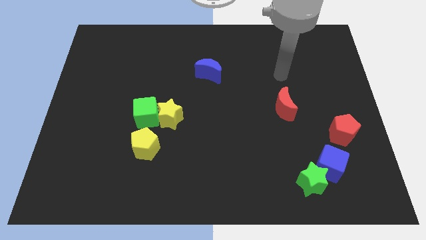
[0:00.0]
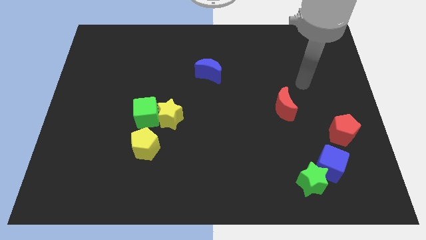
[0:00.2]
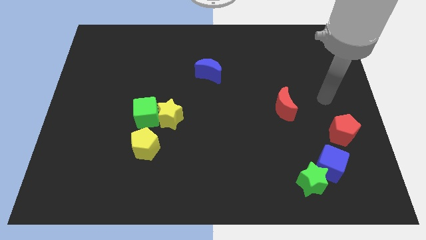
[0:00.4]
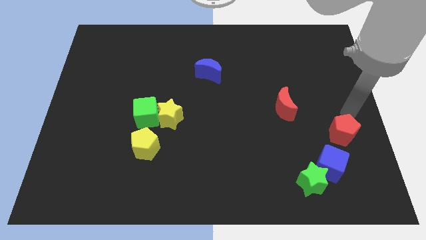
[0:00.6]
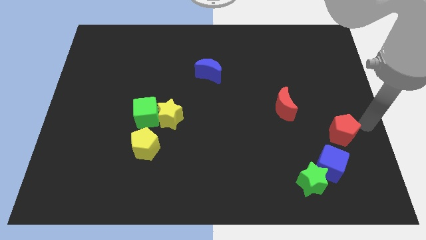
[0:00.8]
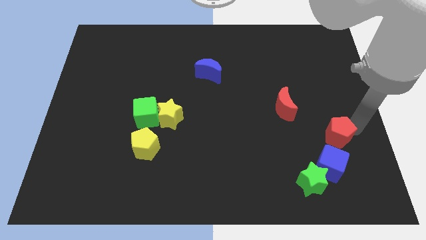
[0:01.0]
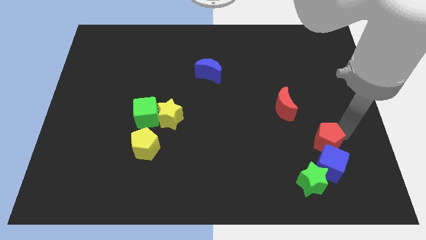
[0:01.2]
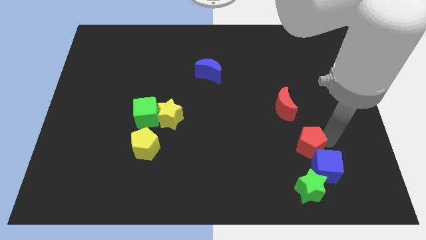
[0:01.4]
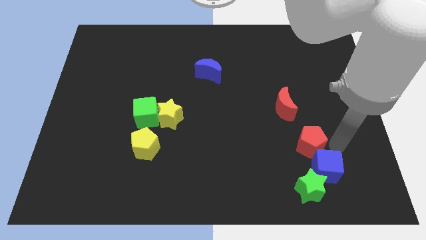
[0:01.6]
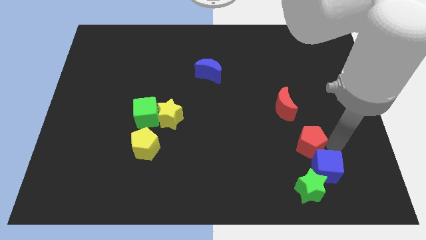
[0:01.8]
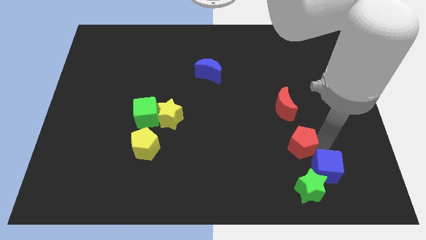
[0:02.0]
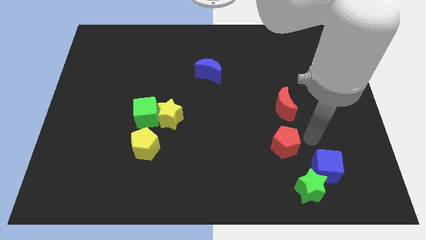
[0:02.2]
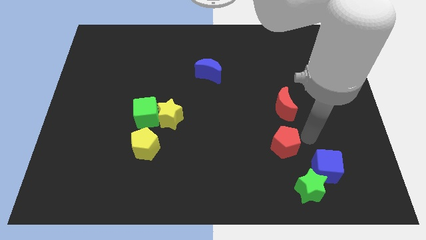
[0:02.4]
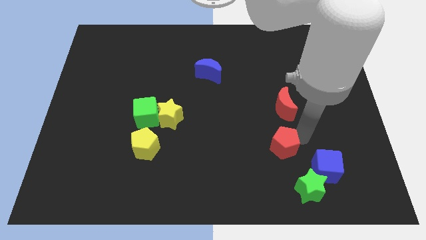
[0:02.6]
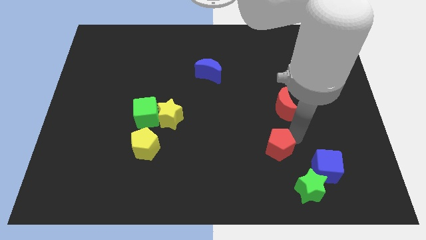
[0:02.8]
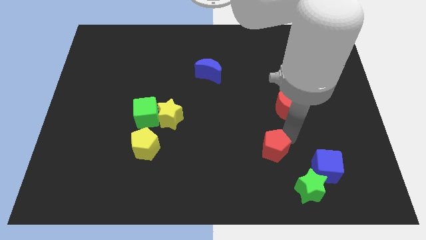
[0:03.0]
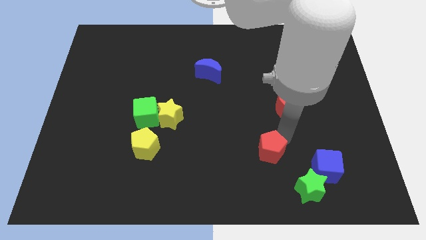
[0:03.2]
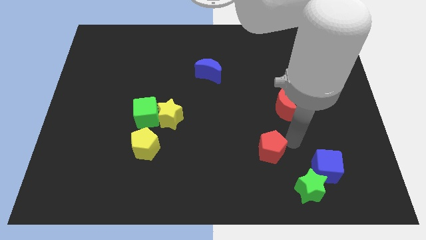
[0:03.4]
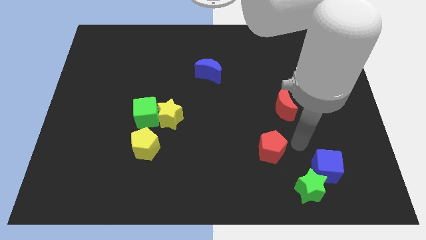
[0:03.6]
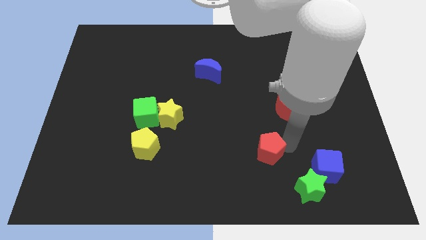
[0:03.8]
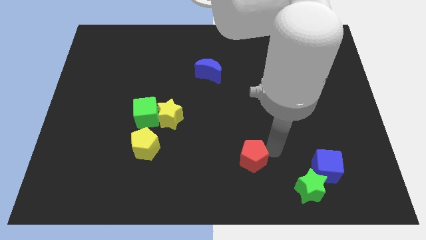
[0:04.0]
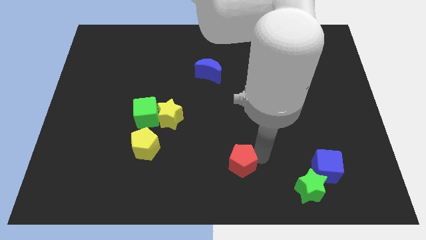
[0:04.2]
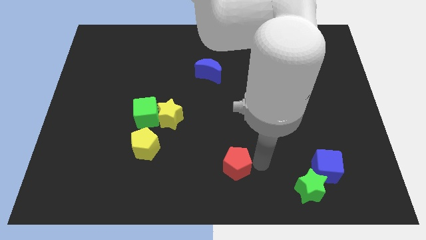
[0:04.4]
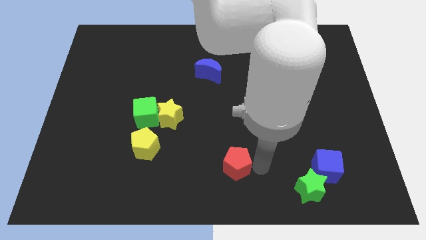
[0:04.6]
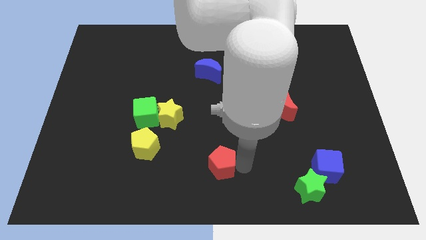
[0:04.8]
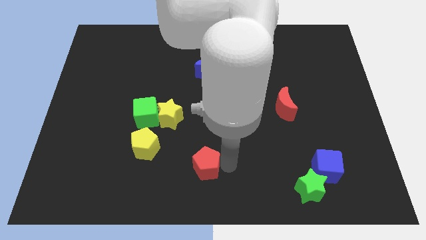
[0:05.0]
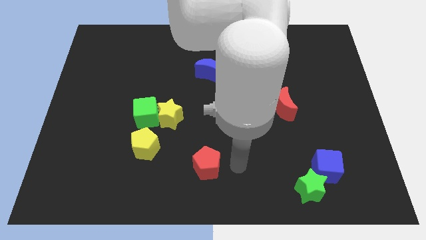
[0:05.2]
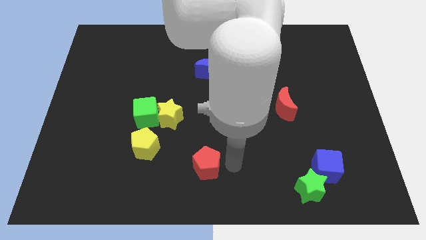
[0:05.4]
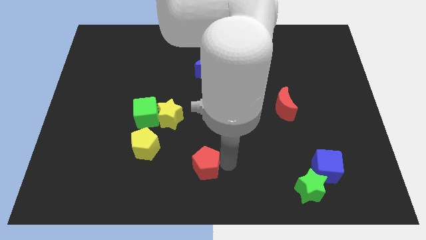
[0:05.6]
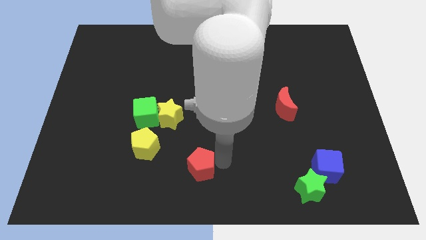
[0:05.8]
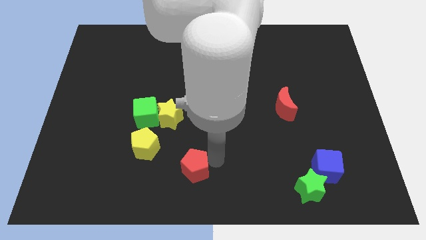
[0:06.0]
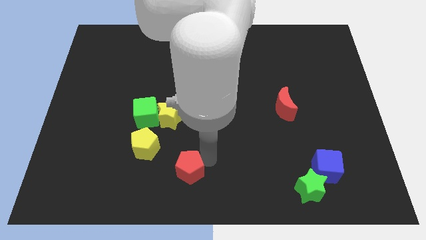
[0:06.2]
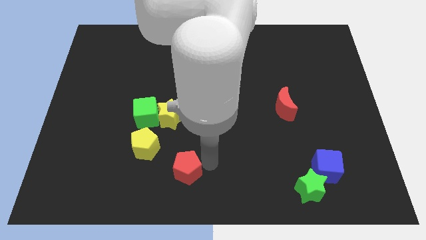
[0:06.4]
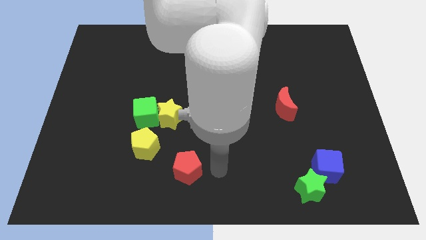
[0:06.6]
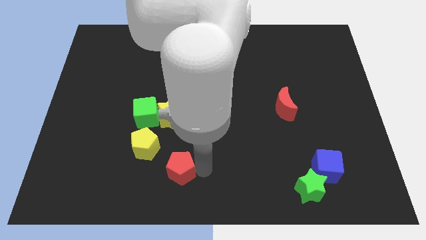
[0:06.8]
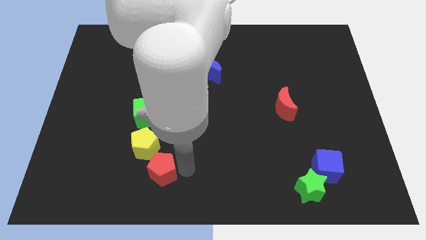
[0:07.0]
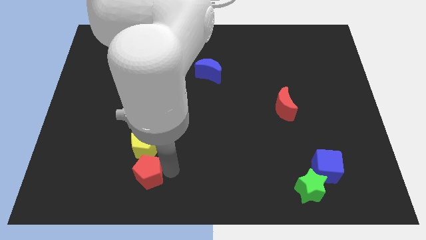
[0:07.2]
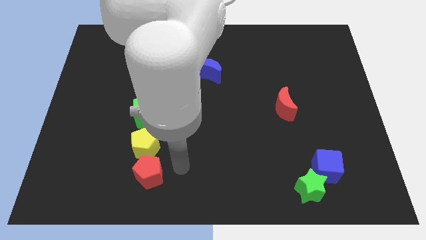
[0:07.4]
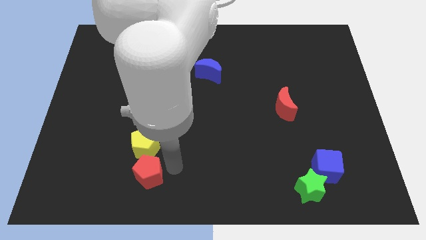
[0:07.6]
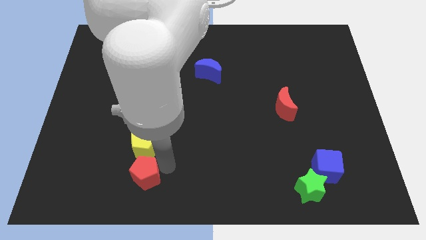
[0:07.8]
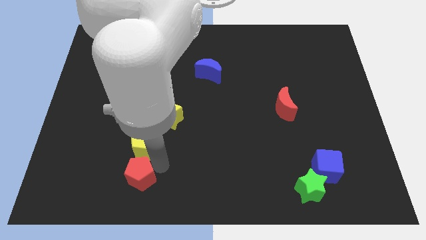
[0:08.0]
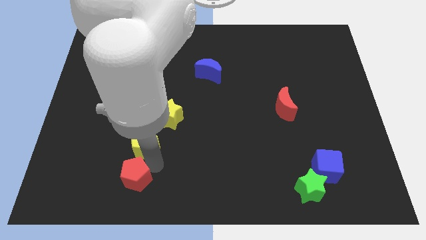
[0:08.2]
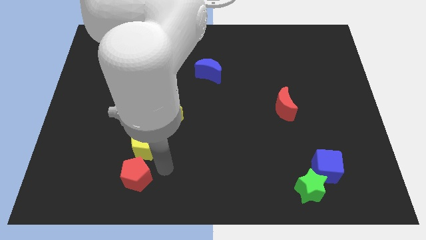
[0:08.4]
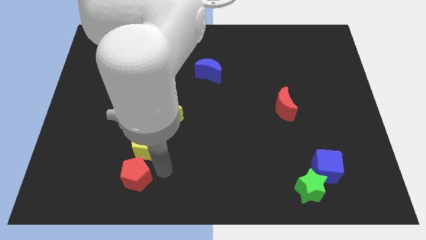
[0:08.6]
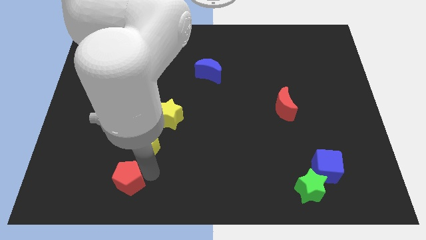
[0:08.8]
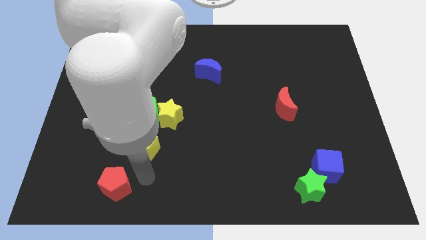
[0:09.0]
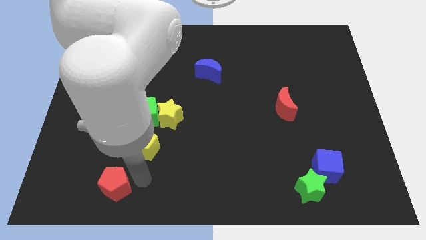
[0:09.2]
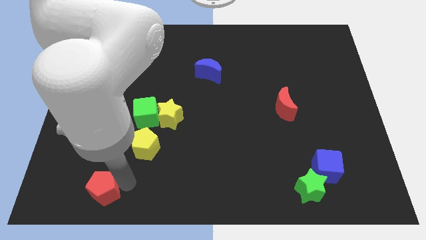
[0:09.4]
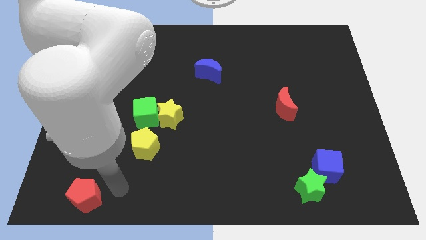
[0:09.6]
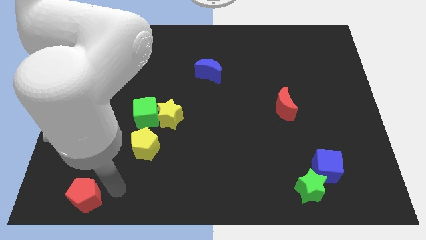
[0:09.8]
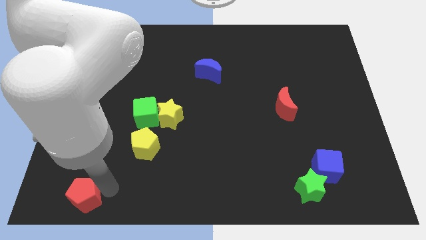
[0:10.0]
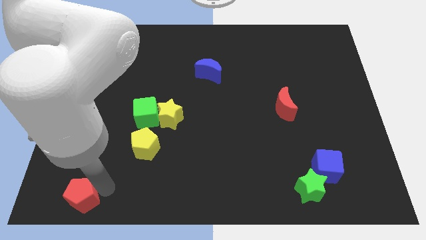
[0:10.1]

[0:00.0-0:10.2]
slide the red pentagon to the bottom left corner

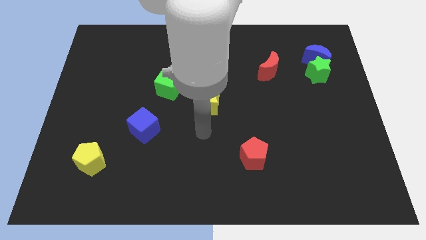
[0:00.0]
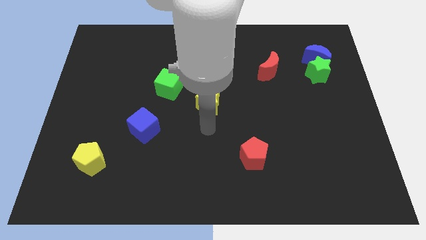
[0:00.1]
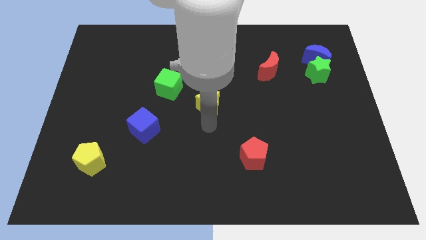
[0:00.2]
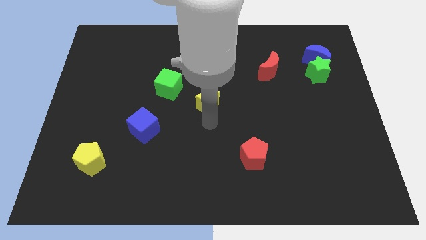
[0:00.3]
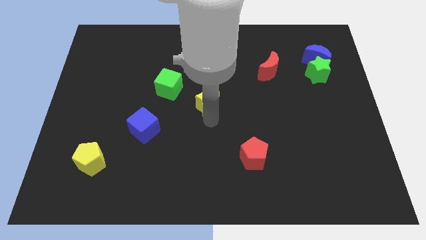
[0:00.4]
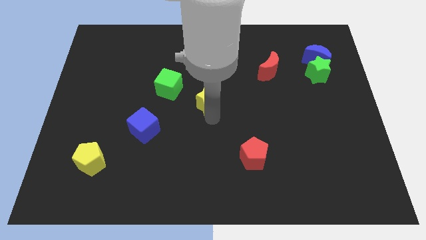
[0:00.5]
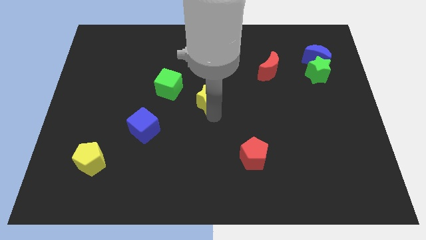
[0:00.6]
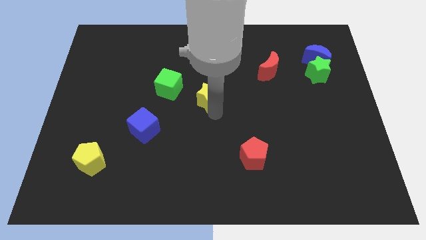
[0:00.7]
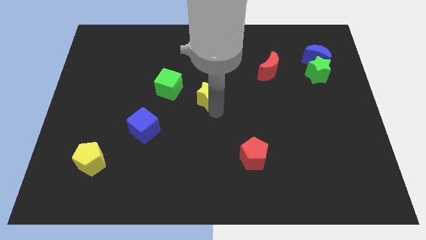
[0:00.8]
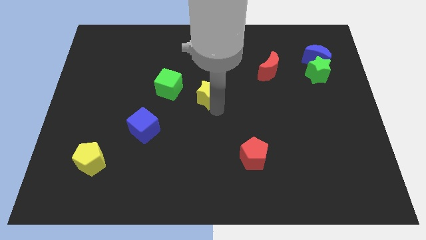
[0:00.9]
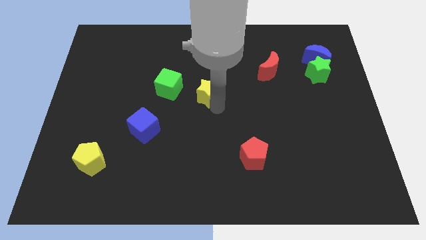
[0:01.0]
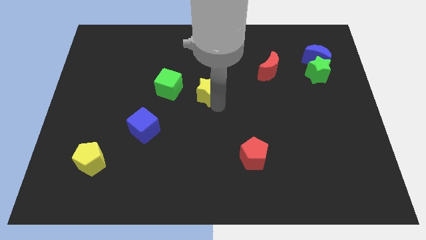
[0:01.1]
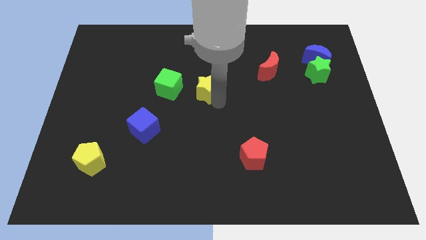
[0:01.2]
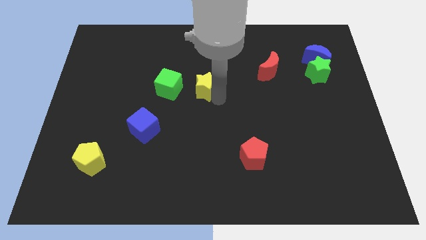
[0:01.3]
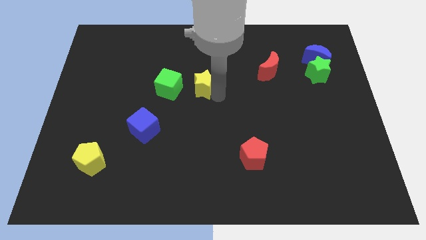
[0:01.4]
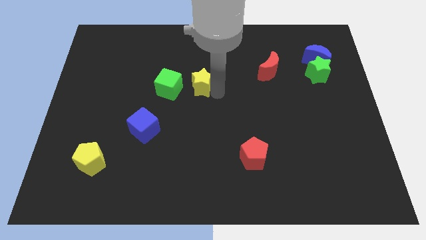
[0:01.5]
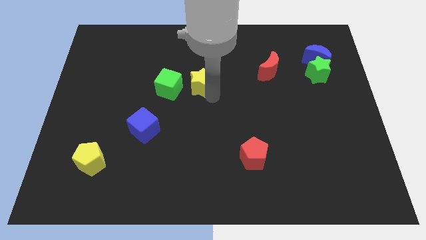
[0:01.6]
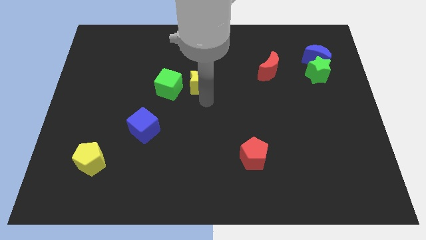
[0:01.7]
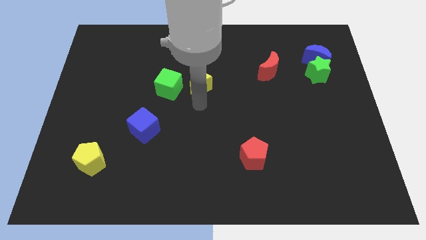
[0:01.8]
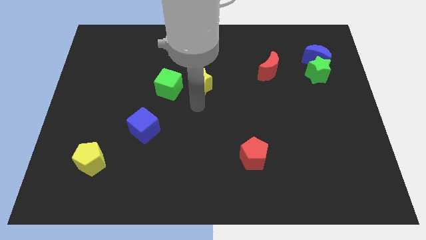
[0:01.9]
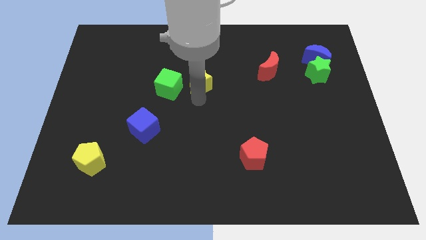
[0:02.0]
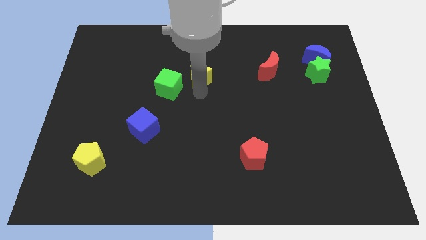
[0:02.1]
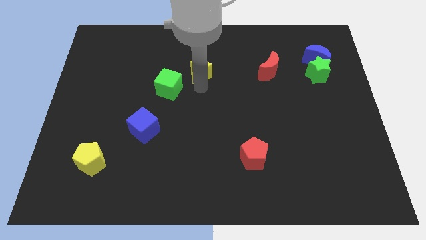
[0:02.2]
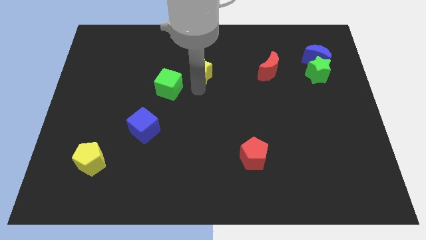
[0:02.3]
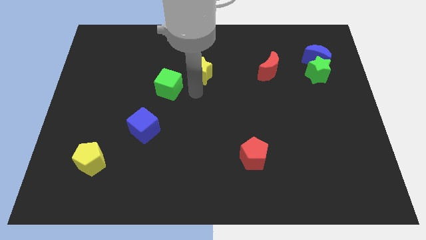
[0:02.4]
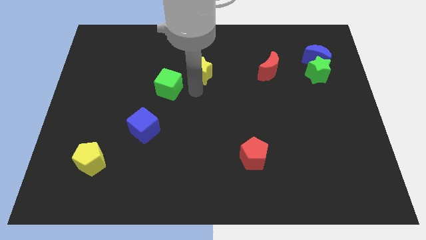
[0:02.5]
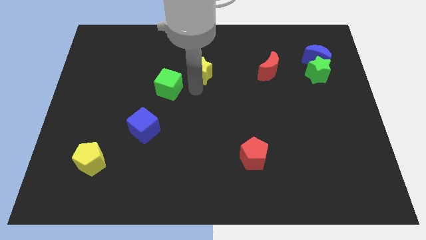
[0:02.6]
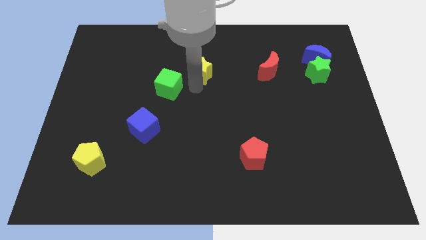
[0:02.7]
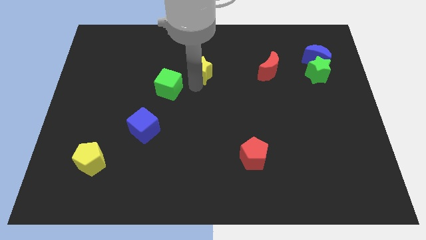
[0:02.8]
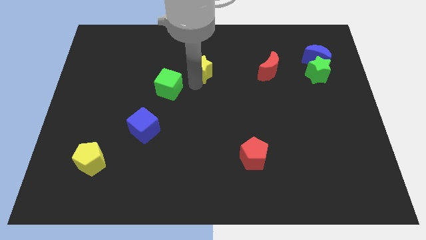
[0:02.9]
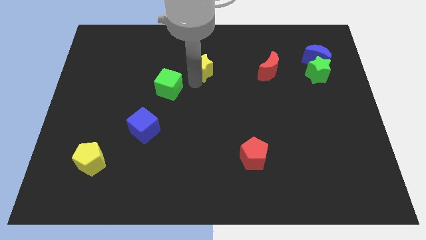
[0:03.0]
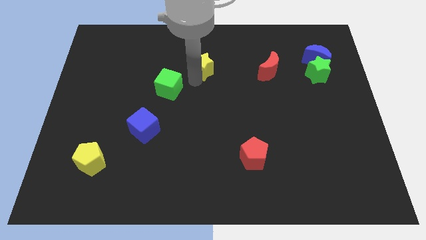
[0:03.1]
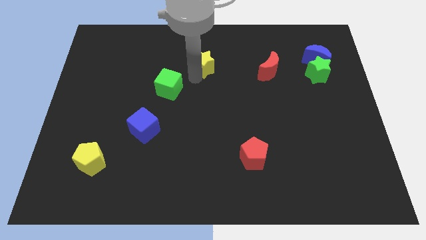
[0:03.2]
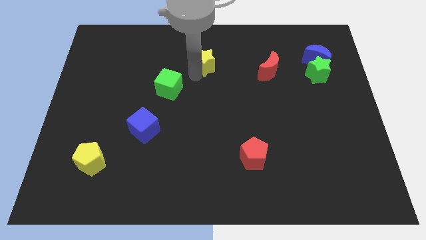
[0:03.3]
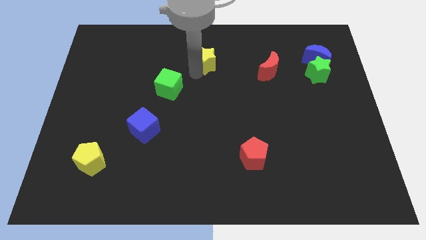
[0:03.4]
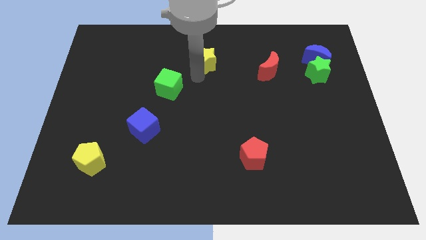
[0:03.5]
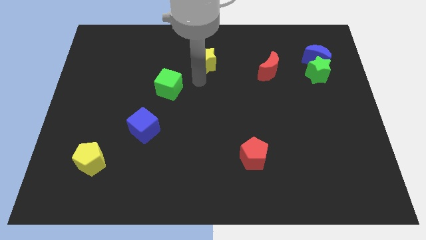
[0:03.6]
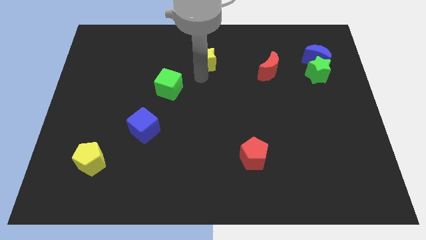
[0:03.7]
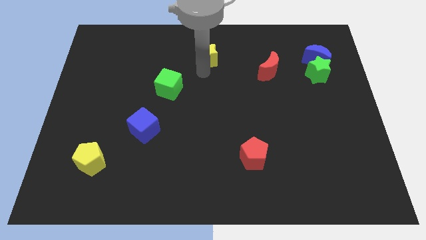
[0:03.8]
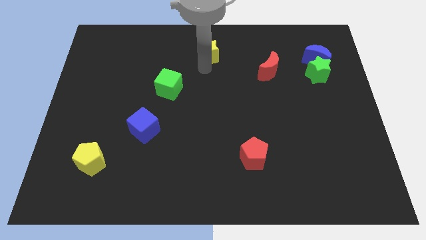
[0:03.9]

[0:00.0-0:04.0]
put the yellow star to the top side
